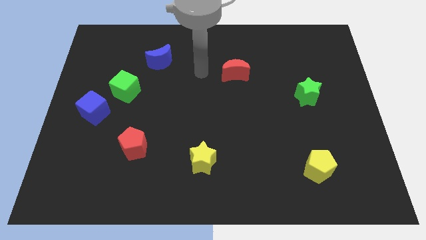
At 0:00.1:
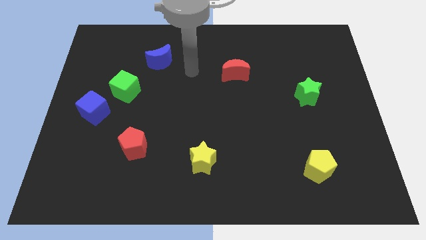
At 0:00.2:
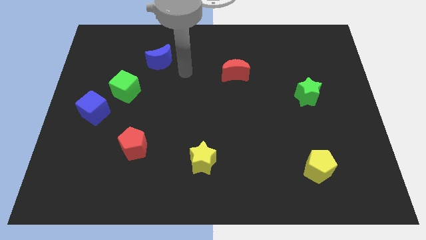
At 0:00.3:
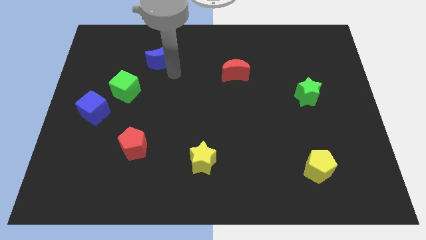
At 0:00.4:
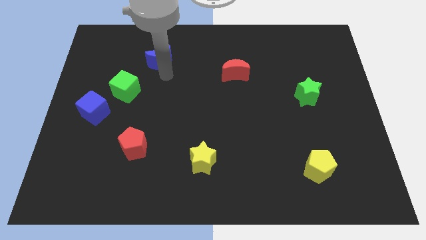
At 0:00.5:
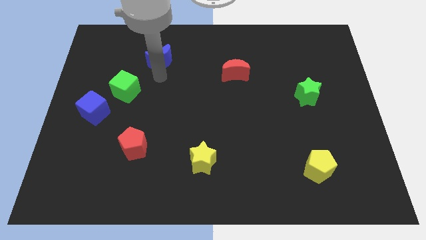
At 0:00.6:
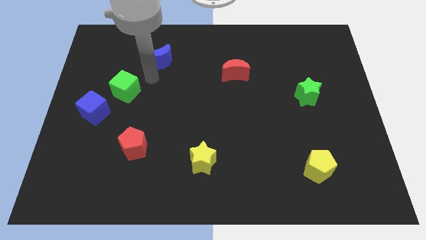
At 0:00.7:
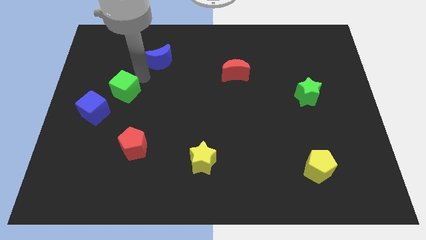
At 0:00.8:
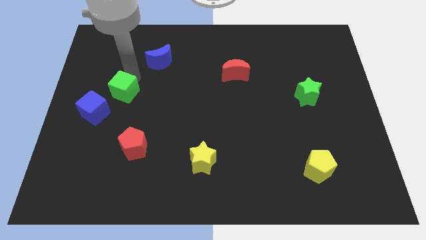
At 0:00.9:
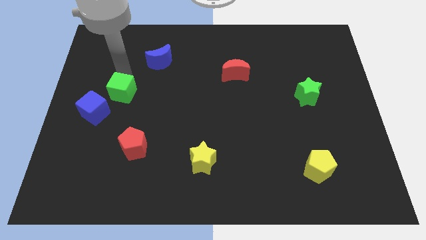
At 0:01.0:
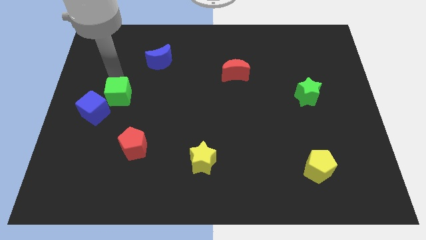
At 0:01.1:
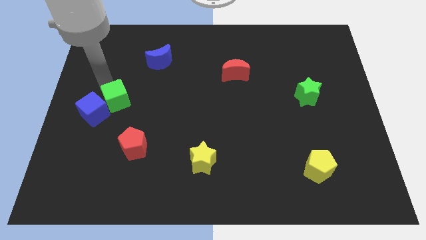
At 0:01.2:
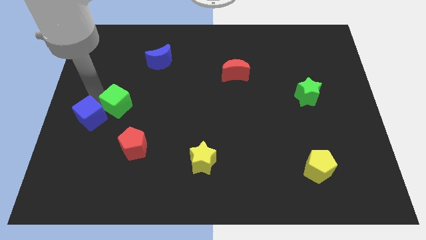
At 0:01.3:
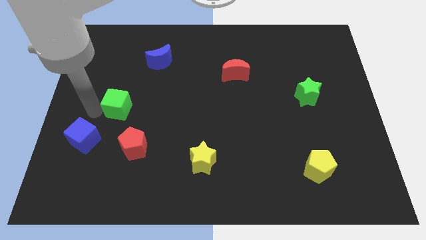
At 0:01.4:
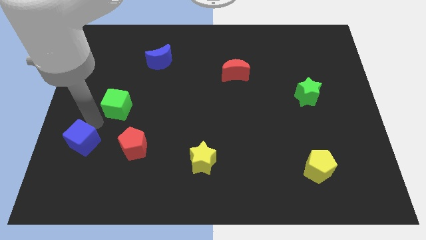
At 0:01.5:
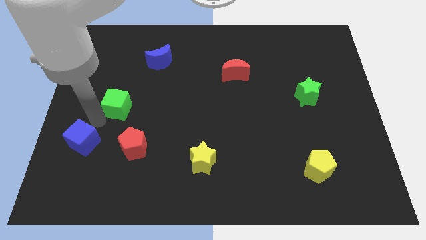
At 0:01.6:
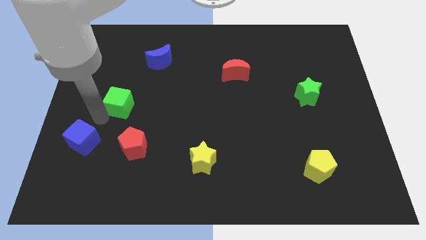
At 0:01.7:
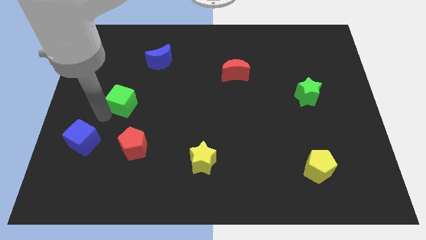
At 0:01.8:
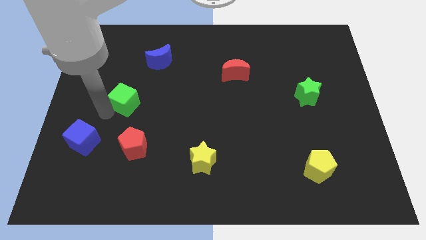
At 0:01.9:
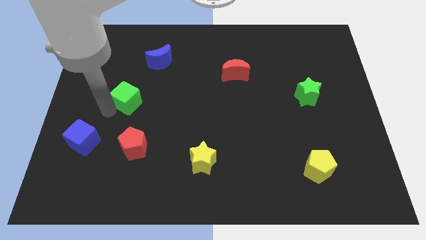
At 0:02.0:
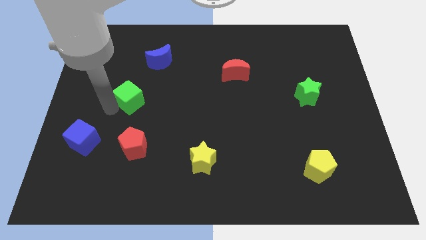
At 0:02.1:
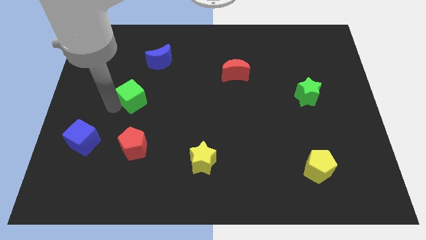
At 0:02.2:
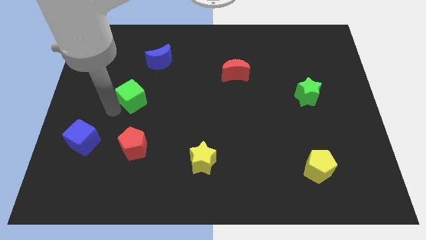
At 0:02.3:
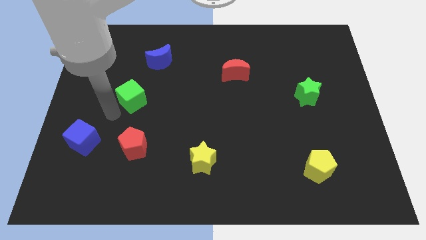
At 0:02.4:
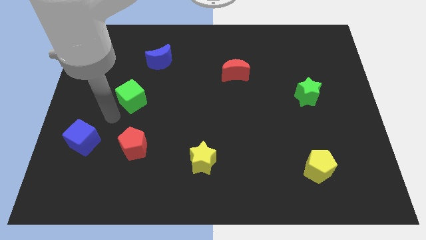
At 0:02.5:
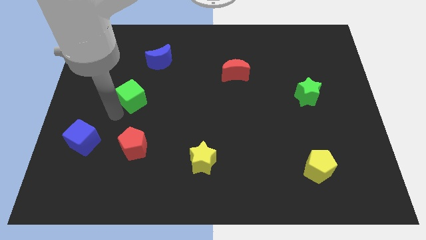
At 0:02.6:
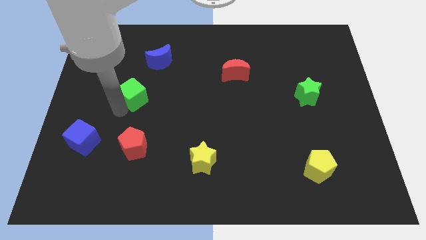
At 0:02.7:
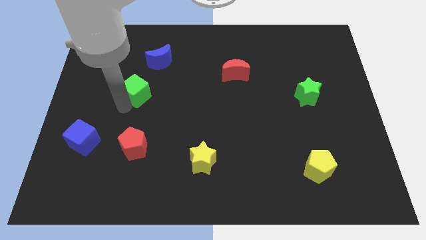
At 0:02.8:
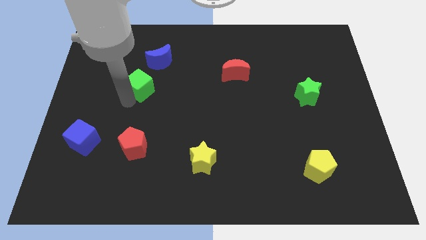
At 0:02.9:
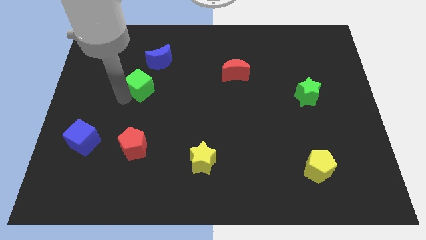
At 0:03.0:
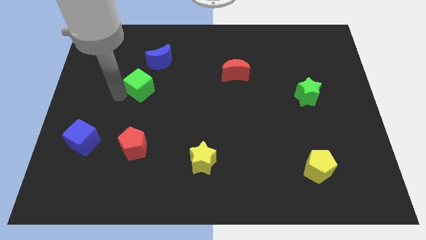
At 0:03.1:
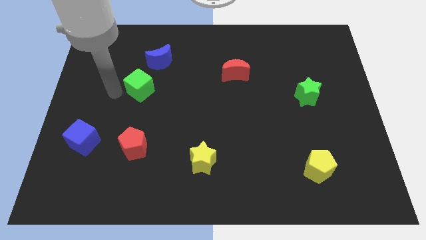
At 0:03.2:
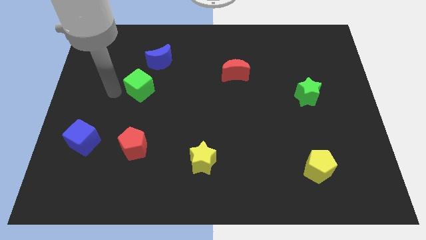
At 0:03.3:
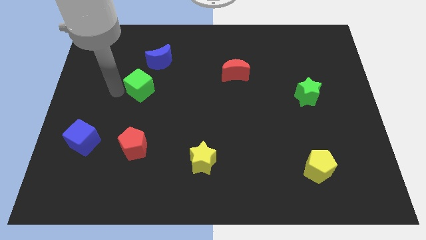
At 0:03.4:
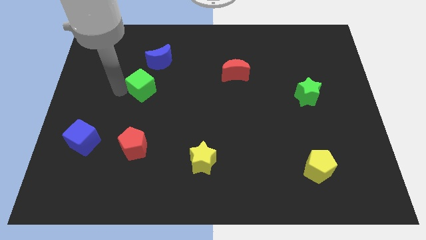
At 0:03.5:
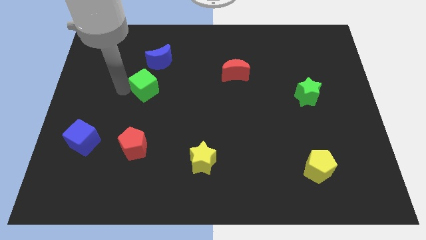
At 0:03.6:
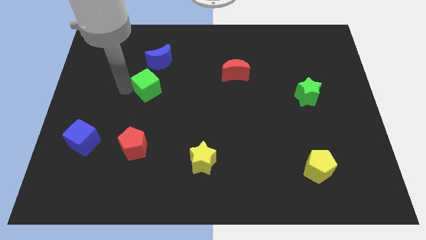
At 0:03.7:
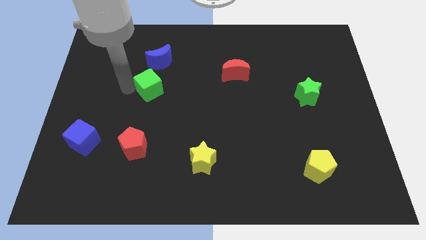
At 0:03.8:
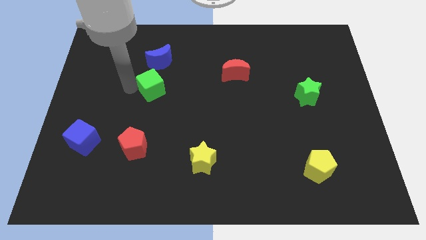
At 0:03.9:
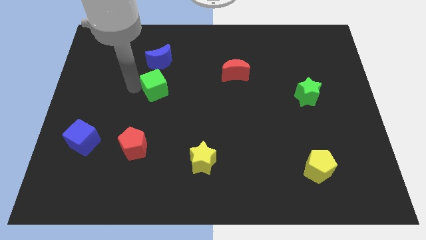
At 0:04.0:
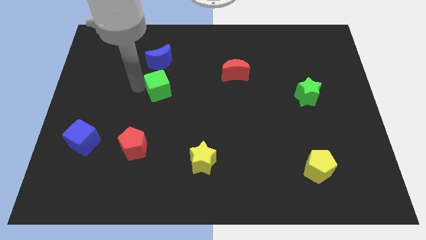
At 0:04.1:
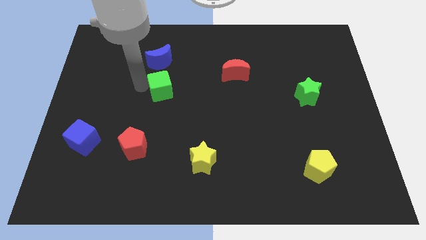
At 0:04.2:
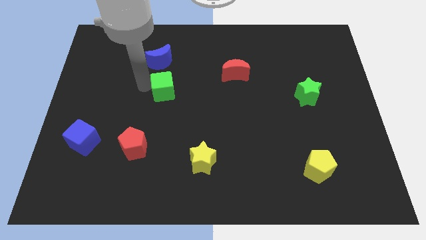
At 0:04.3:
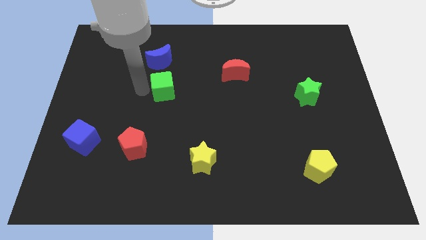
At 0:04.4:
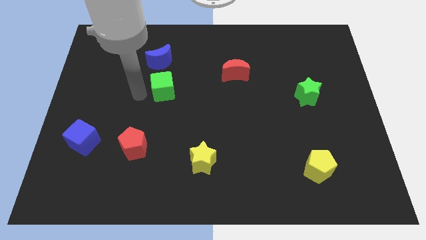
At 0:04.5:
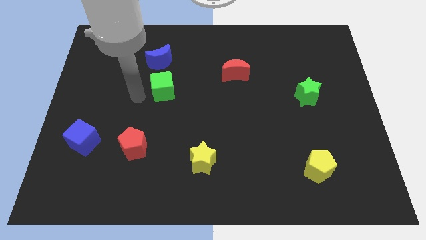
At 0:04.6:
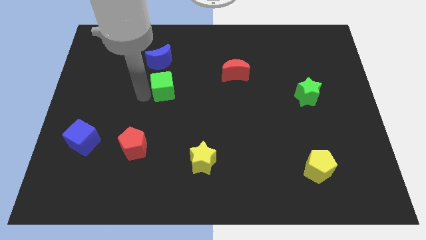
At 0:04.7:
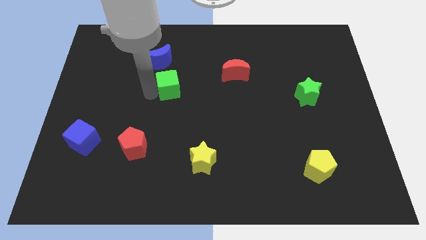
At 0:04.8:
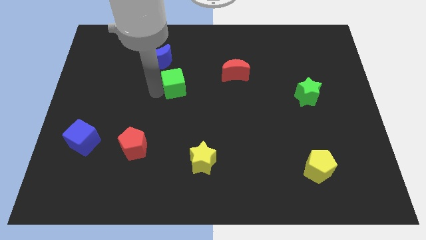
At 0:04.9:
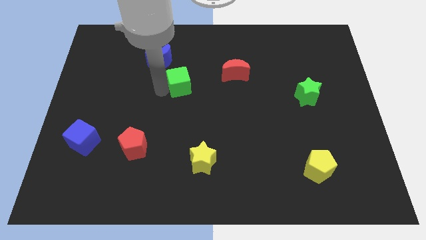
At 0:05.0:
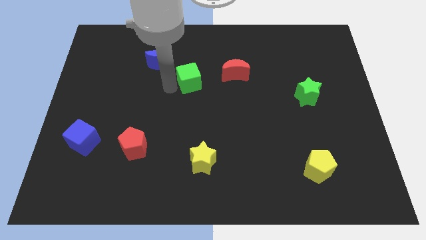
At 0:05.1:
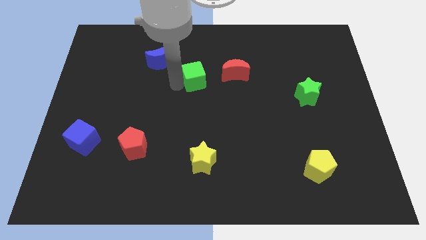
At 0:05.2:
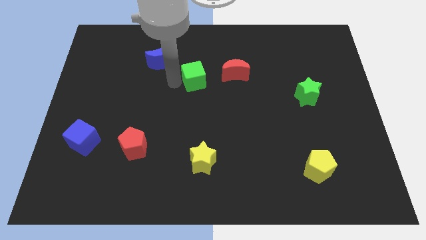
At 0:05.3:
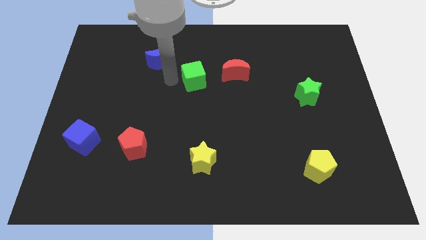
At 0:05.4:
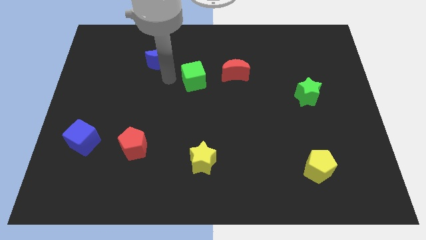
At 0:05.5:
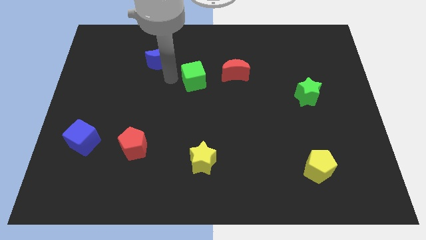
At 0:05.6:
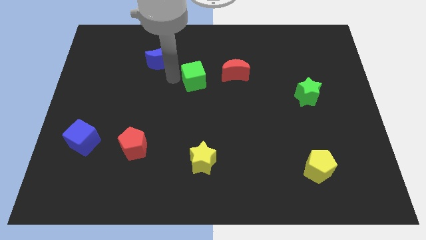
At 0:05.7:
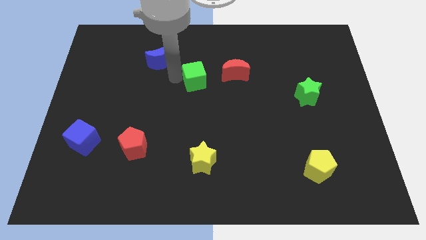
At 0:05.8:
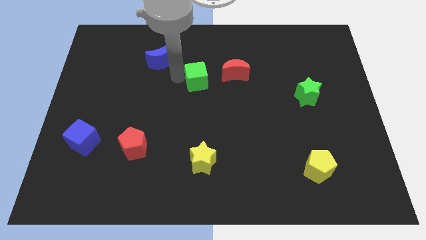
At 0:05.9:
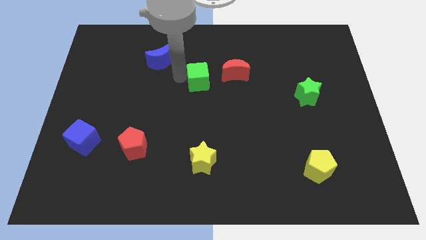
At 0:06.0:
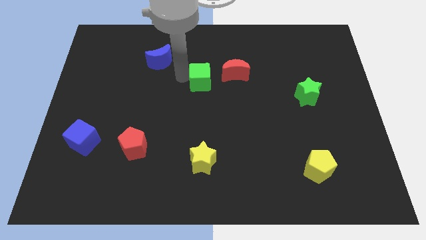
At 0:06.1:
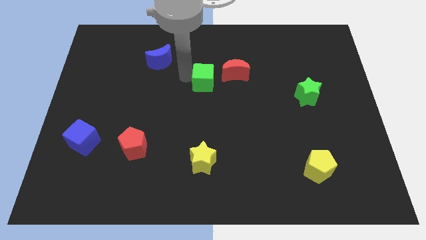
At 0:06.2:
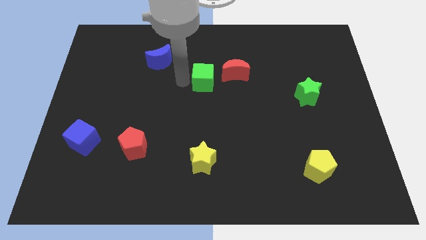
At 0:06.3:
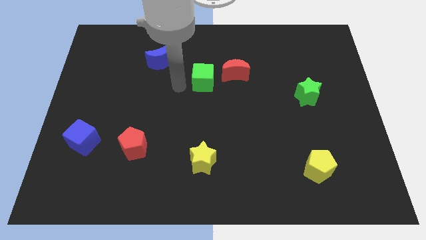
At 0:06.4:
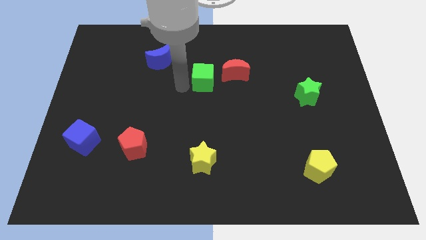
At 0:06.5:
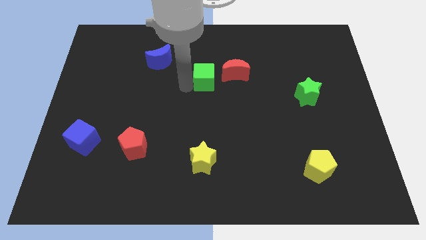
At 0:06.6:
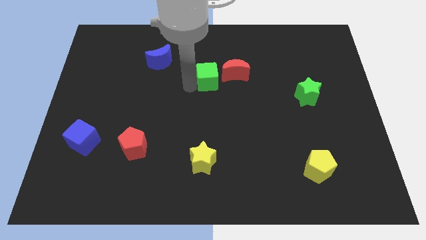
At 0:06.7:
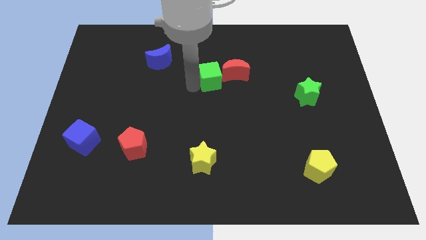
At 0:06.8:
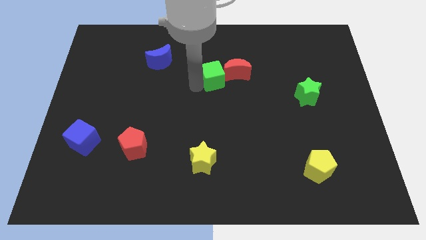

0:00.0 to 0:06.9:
move the green cube close to the red moon

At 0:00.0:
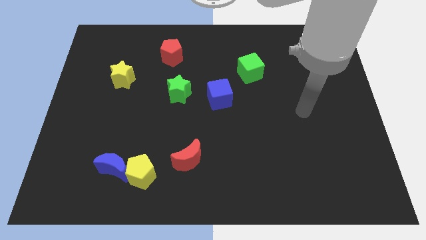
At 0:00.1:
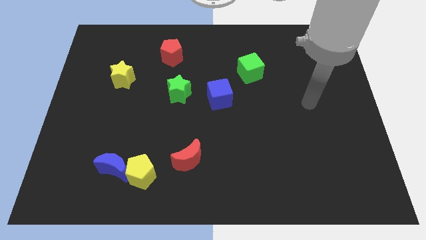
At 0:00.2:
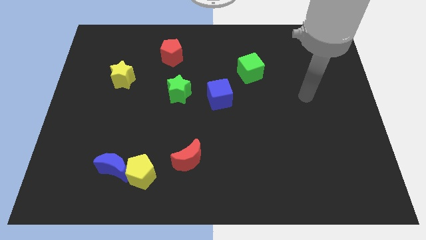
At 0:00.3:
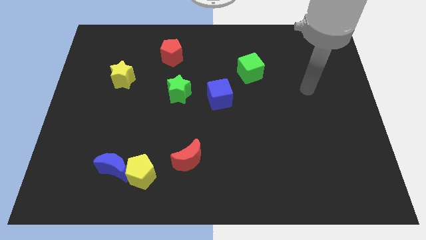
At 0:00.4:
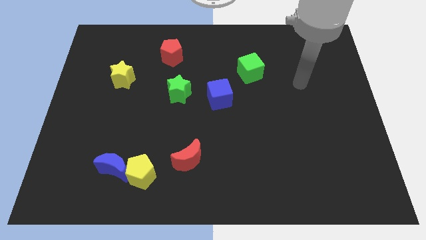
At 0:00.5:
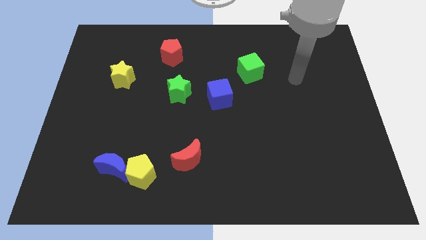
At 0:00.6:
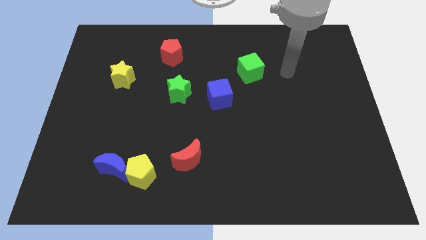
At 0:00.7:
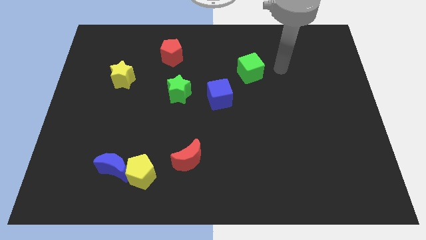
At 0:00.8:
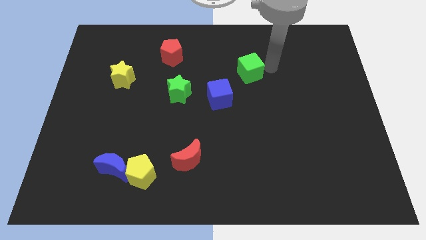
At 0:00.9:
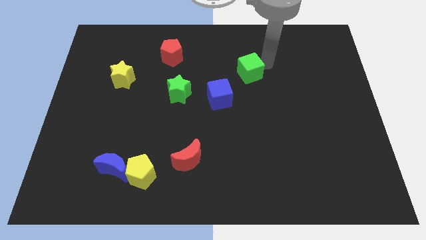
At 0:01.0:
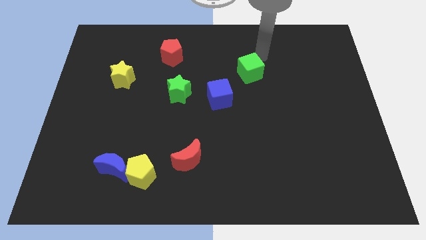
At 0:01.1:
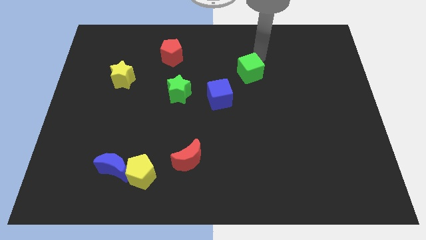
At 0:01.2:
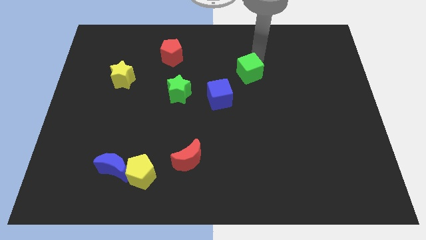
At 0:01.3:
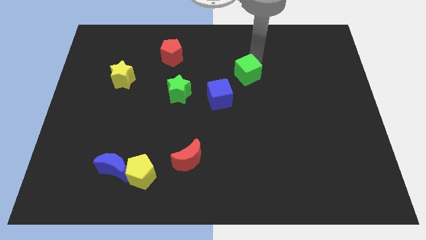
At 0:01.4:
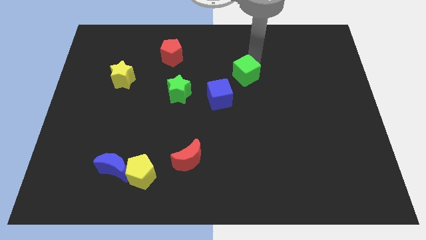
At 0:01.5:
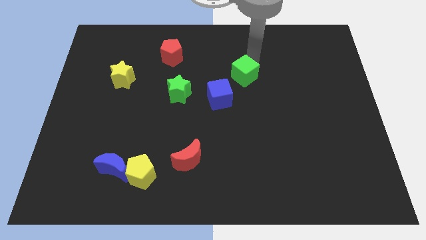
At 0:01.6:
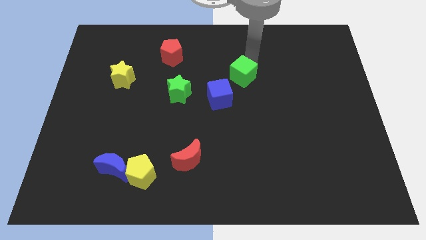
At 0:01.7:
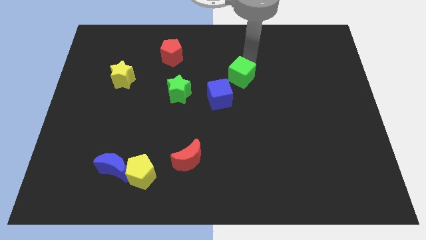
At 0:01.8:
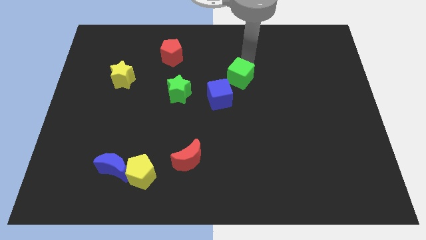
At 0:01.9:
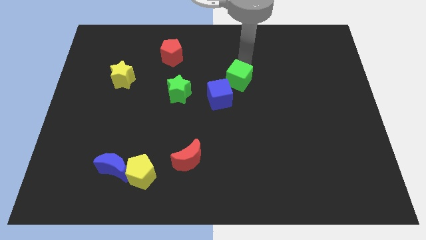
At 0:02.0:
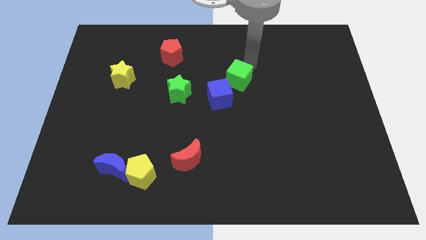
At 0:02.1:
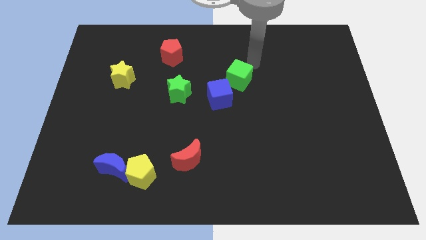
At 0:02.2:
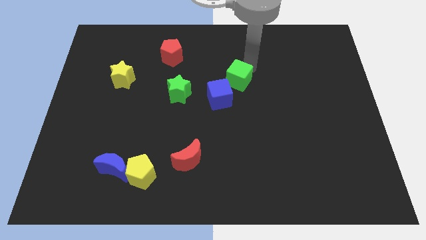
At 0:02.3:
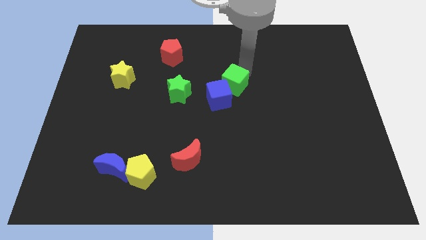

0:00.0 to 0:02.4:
slide the green cube towards the blue cube
